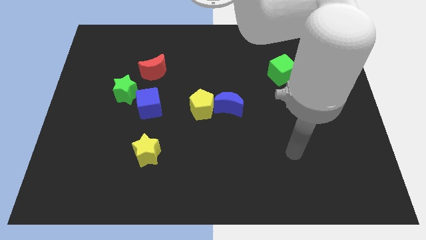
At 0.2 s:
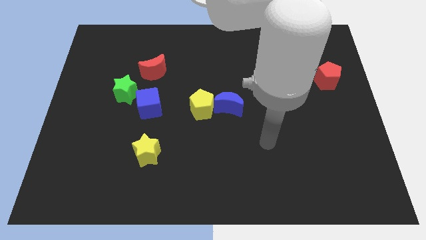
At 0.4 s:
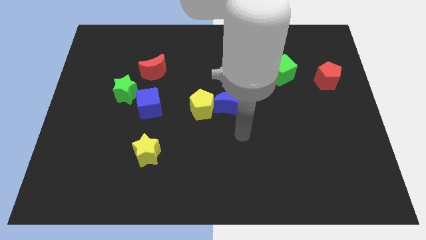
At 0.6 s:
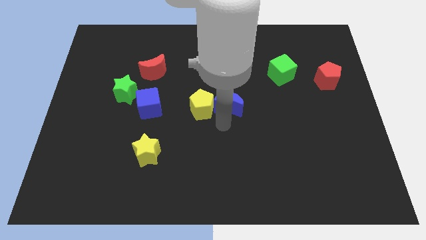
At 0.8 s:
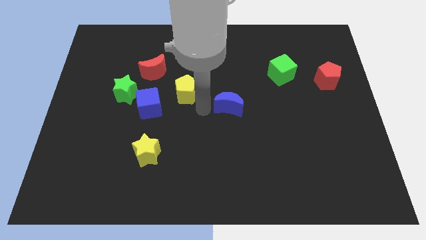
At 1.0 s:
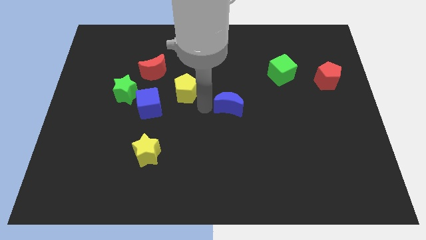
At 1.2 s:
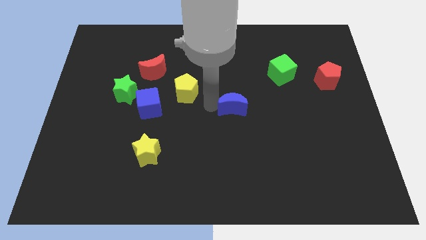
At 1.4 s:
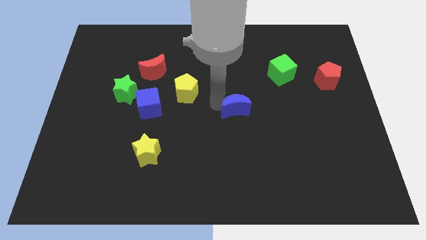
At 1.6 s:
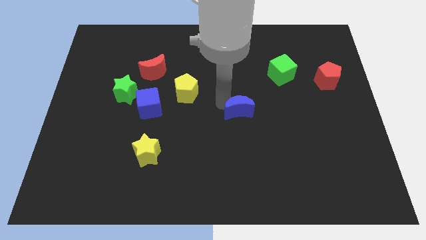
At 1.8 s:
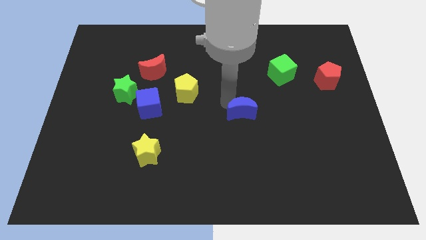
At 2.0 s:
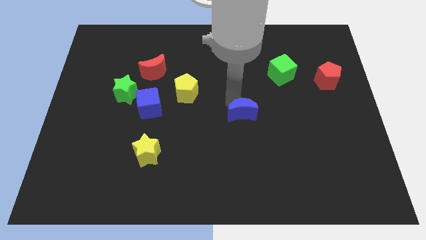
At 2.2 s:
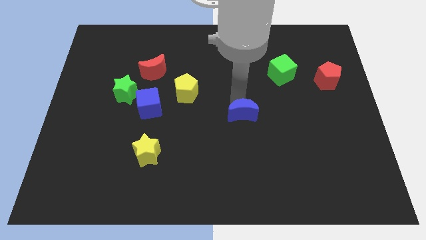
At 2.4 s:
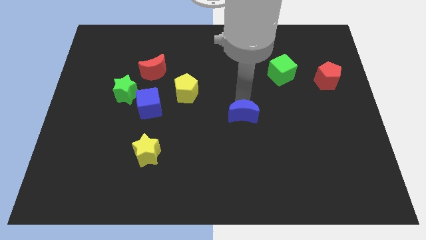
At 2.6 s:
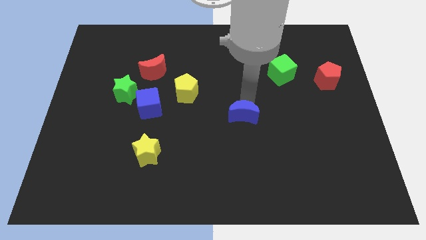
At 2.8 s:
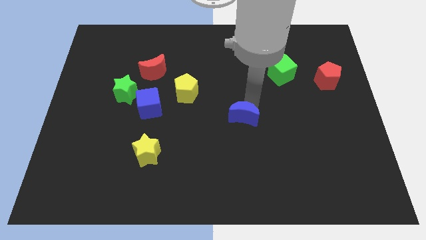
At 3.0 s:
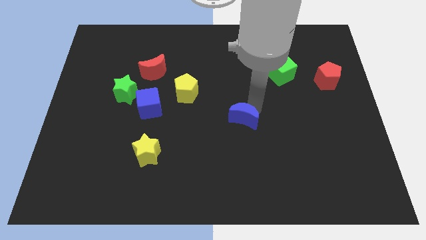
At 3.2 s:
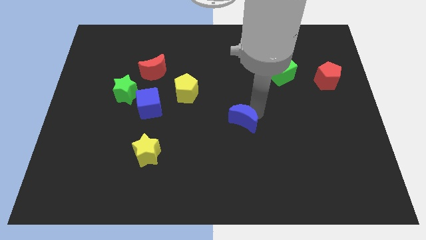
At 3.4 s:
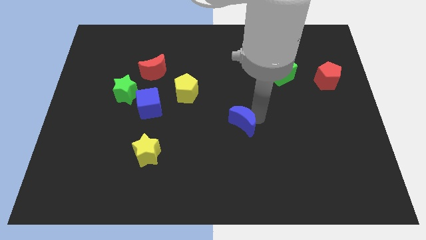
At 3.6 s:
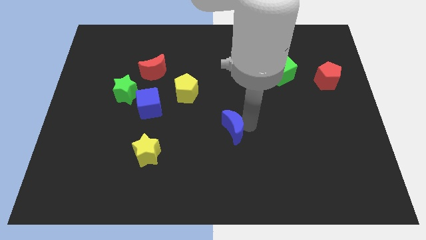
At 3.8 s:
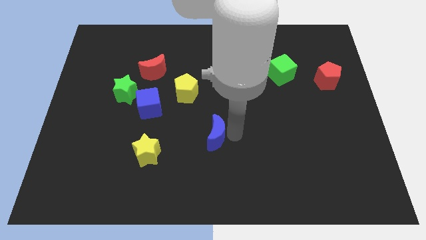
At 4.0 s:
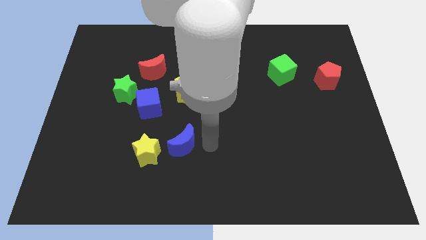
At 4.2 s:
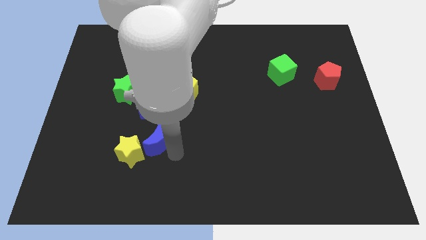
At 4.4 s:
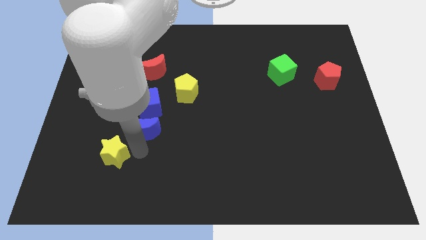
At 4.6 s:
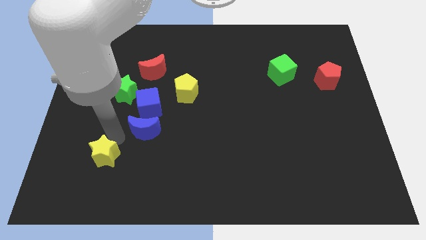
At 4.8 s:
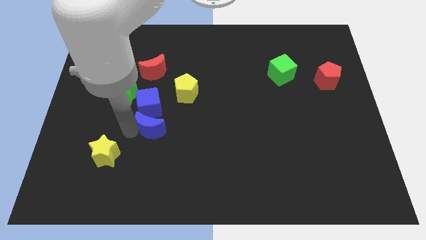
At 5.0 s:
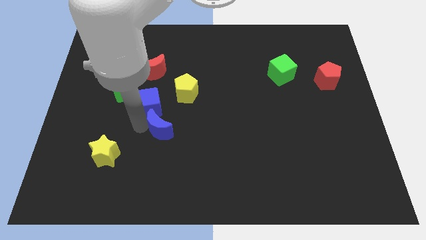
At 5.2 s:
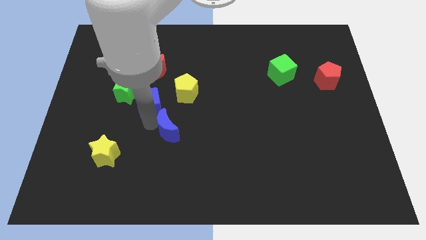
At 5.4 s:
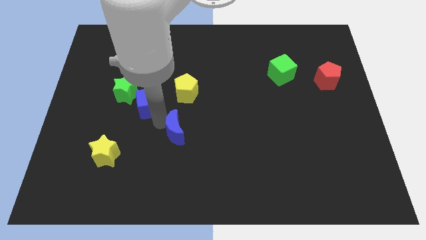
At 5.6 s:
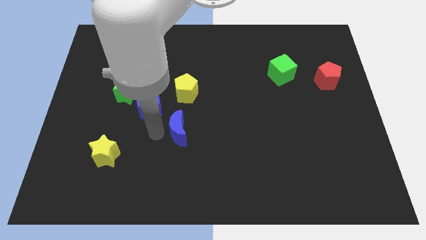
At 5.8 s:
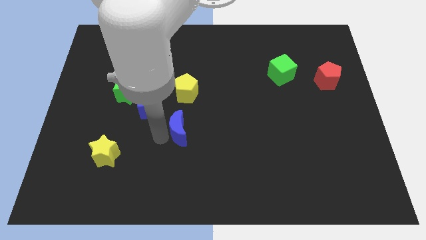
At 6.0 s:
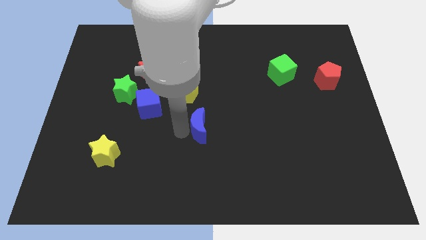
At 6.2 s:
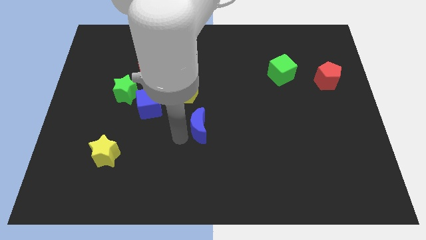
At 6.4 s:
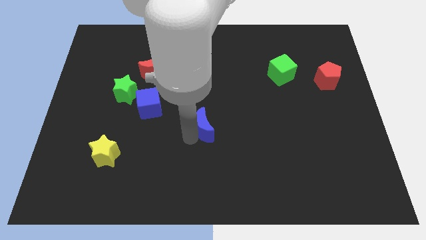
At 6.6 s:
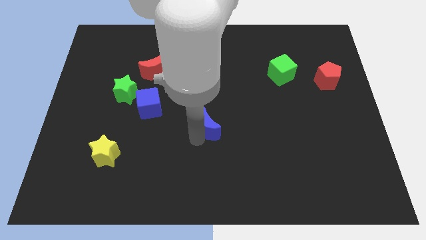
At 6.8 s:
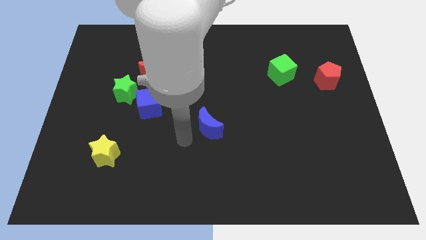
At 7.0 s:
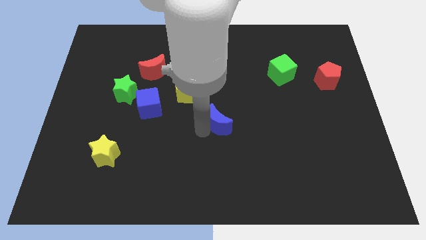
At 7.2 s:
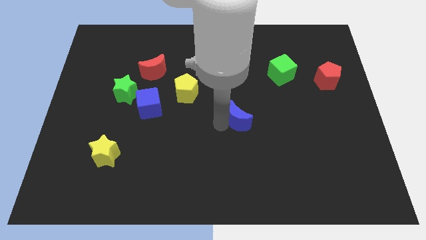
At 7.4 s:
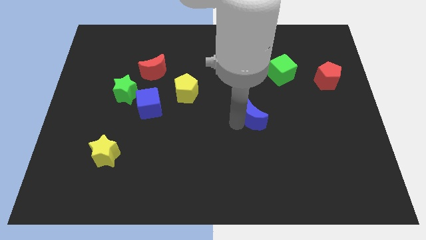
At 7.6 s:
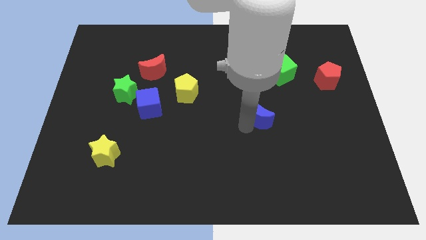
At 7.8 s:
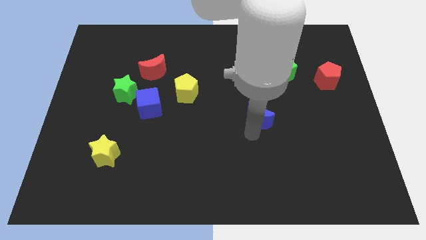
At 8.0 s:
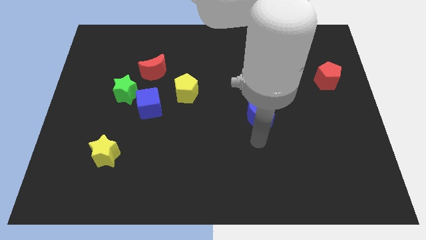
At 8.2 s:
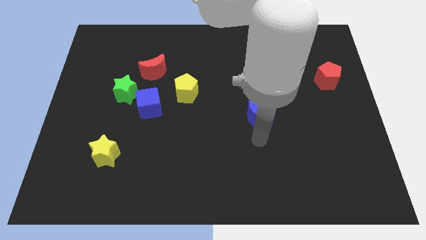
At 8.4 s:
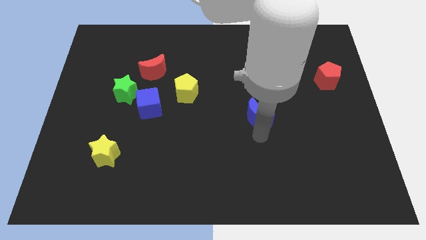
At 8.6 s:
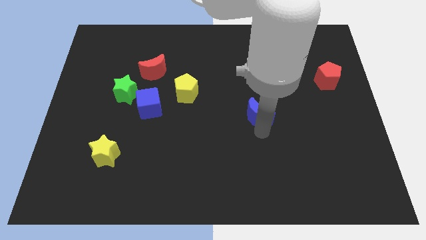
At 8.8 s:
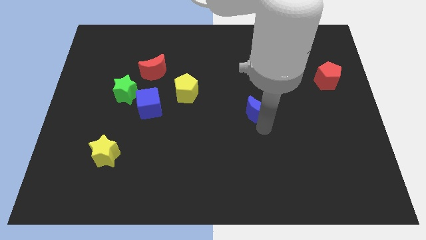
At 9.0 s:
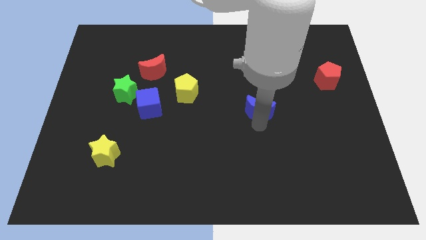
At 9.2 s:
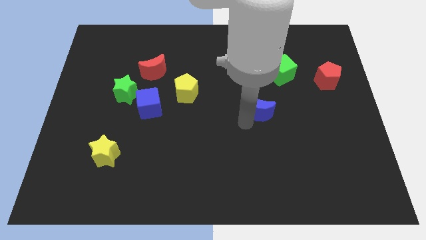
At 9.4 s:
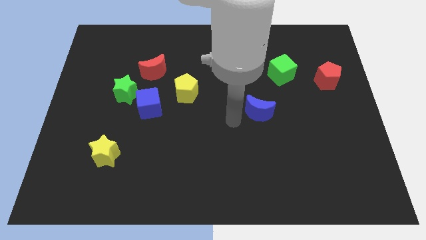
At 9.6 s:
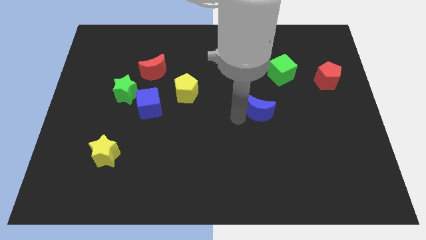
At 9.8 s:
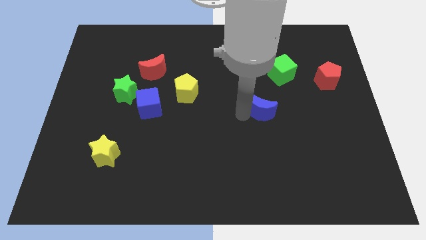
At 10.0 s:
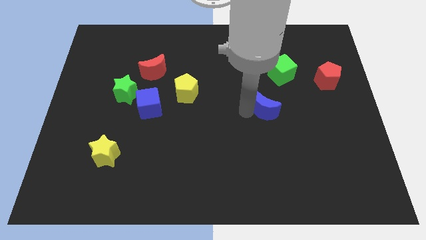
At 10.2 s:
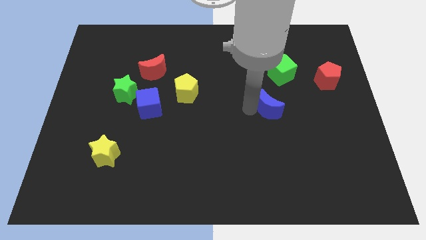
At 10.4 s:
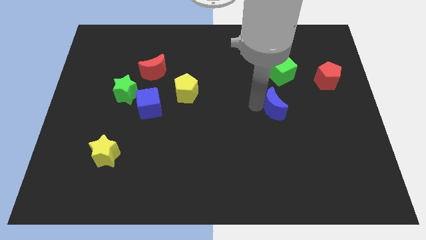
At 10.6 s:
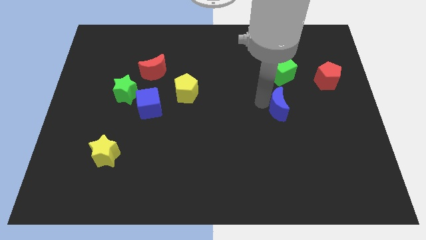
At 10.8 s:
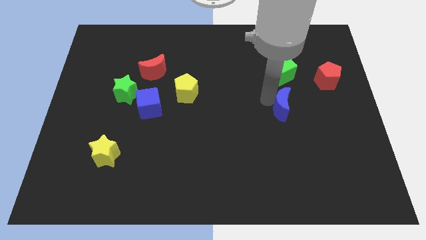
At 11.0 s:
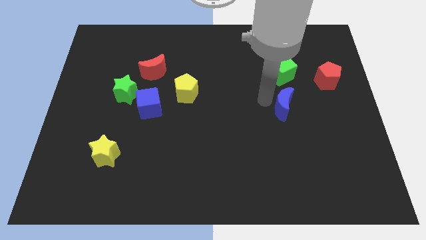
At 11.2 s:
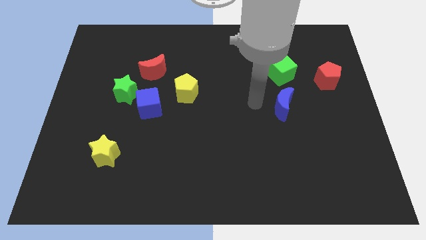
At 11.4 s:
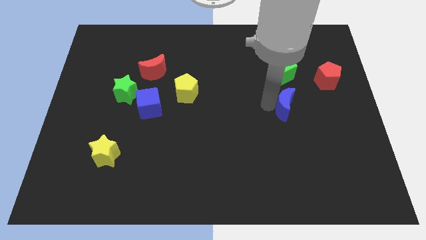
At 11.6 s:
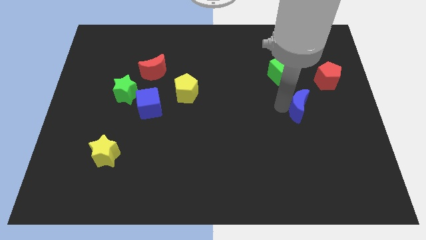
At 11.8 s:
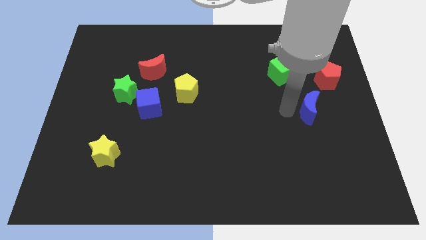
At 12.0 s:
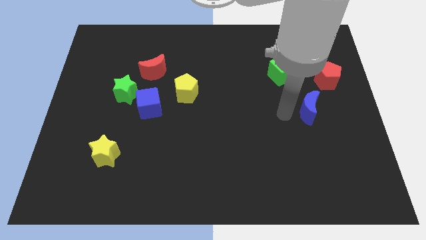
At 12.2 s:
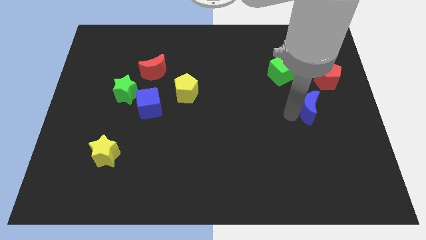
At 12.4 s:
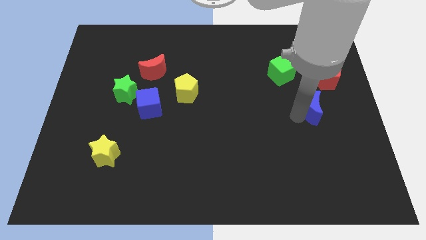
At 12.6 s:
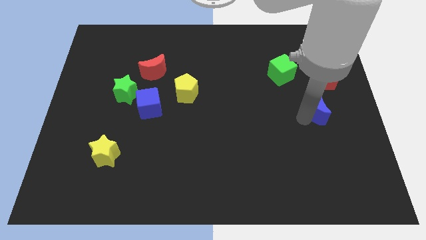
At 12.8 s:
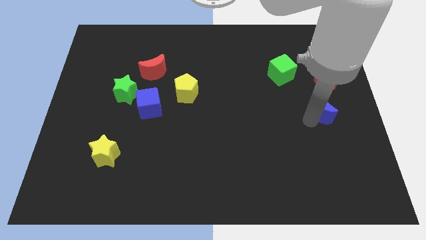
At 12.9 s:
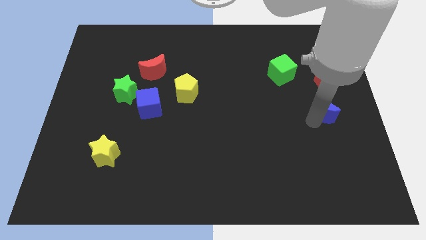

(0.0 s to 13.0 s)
slide the blue moon to the right side
